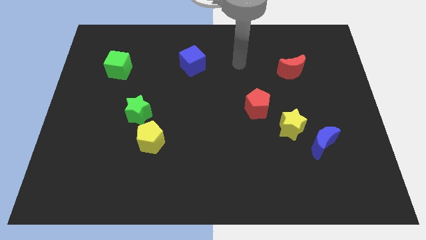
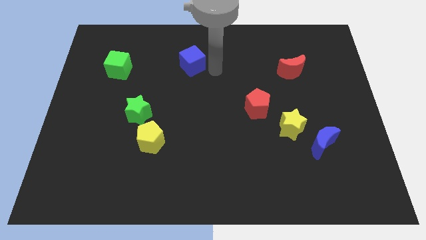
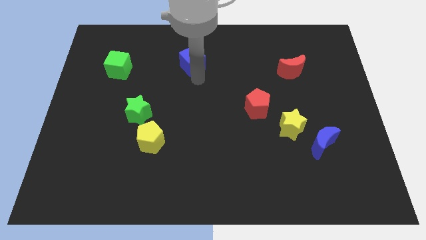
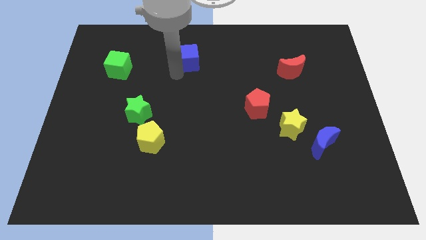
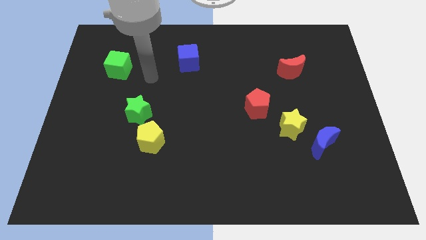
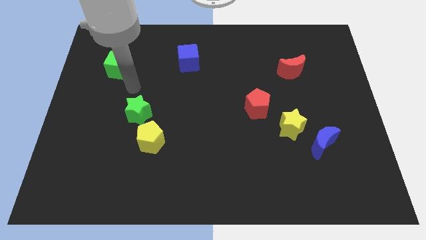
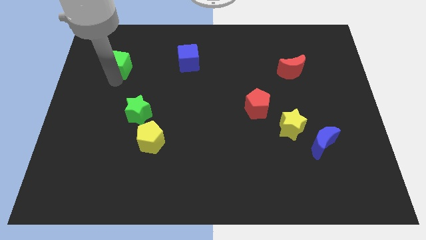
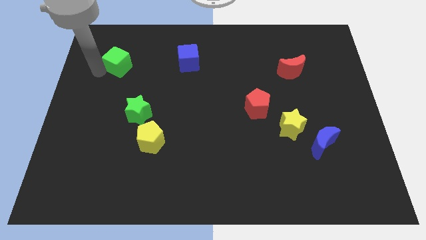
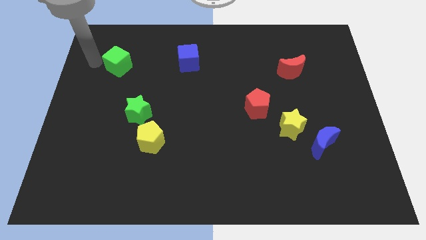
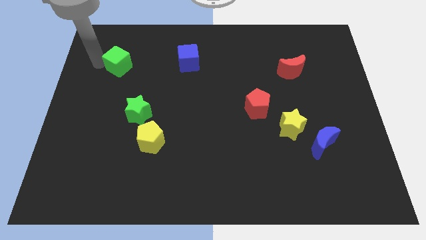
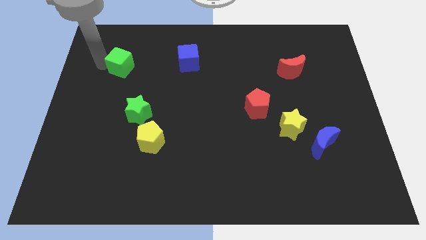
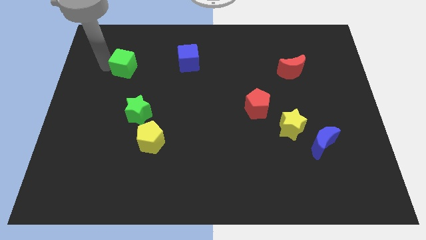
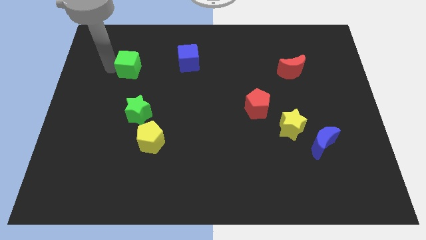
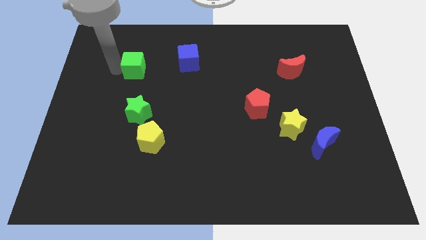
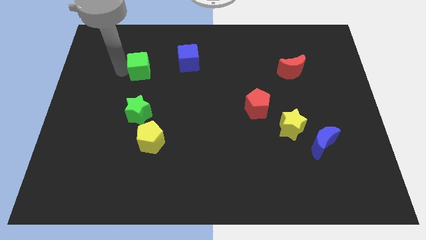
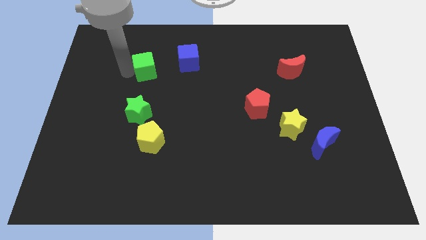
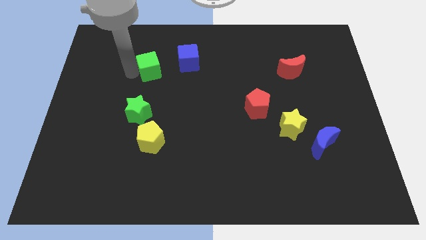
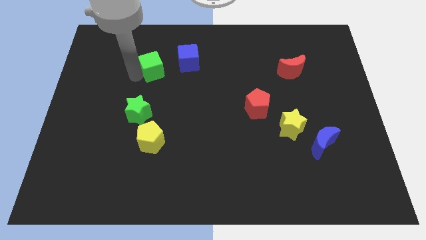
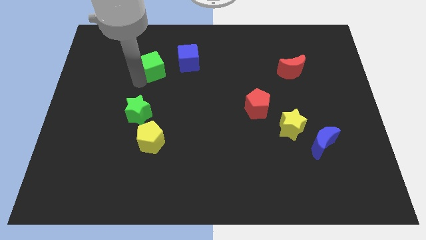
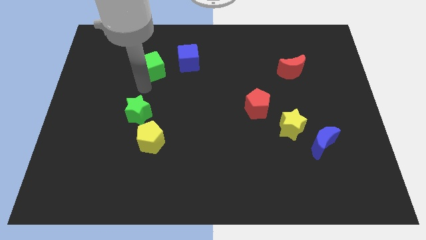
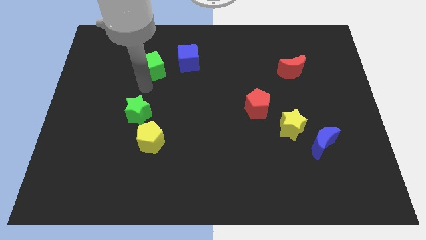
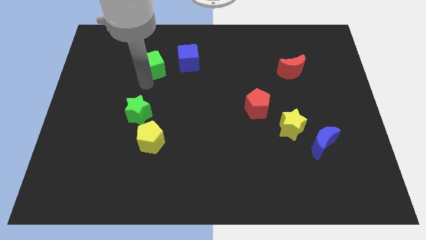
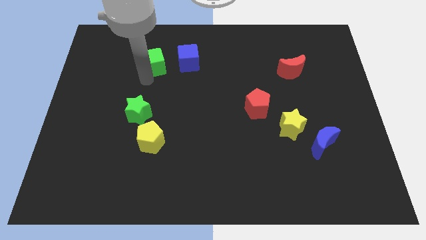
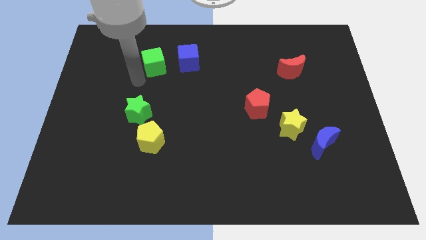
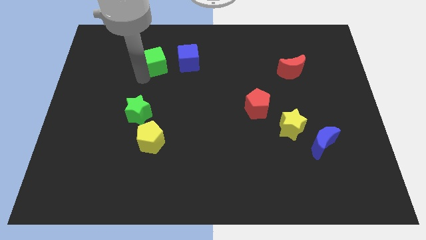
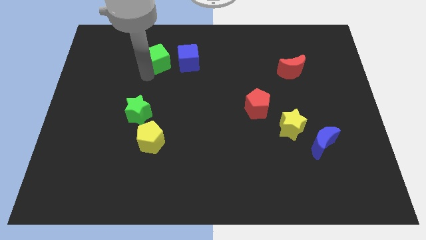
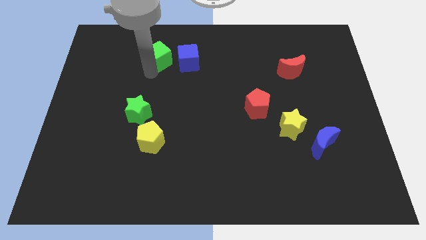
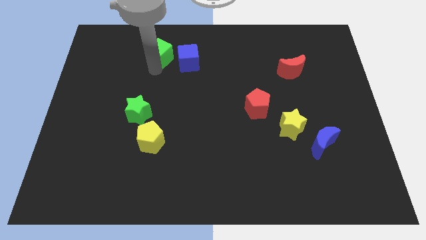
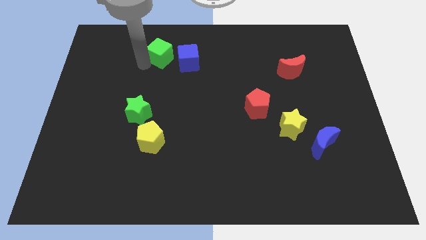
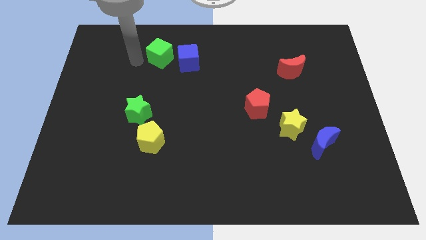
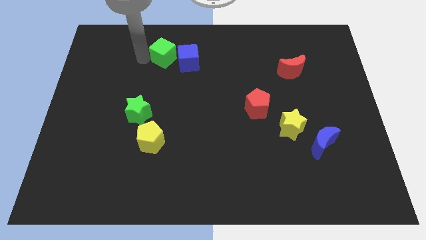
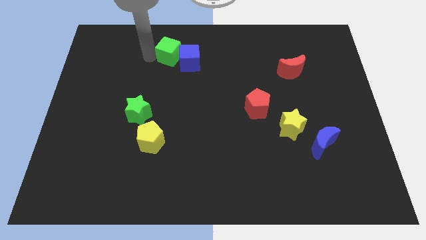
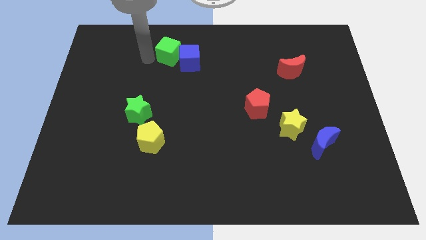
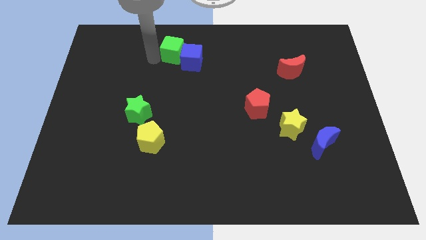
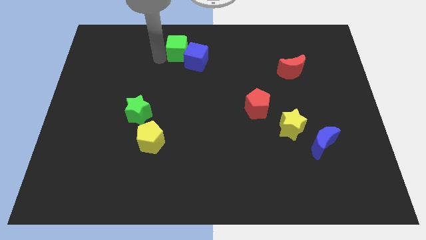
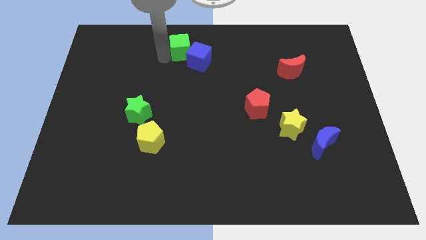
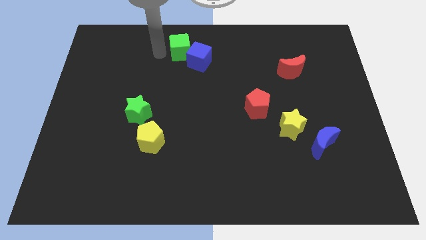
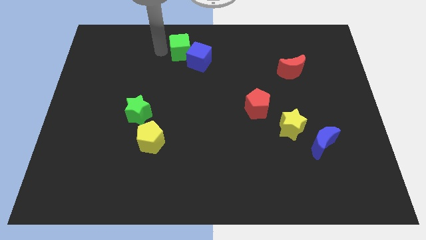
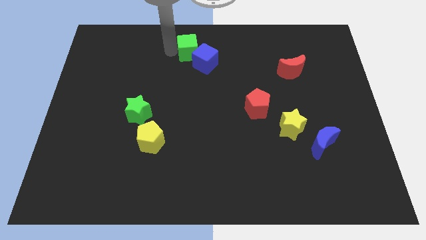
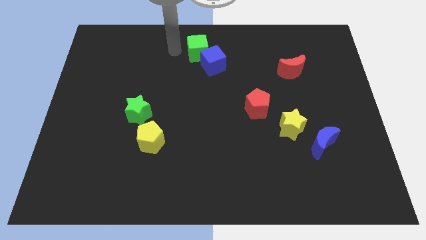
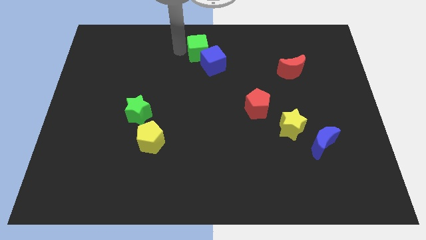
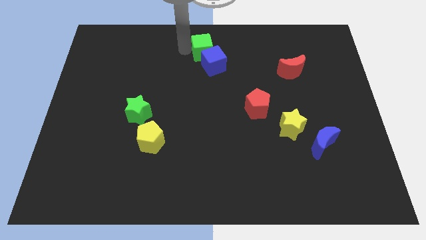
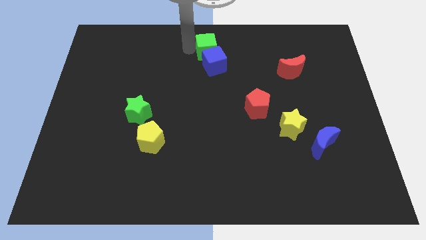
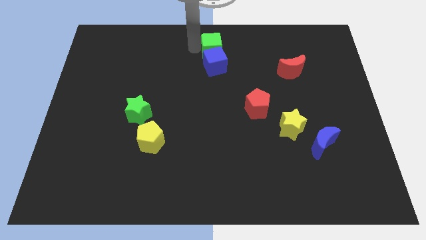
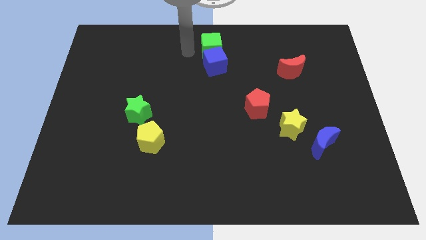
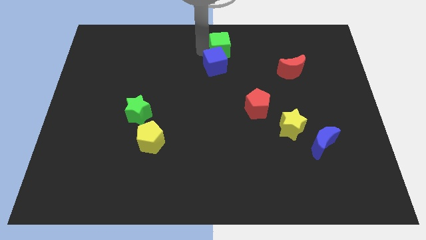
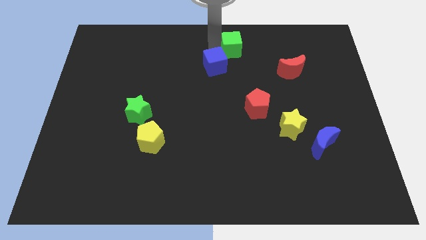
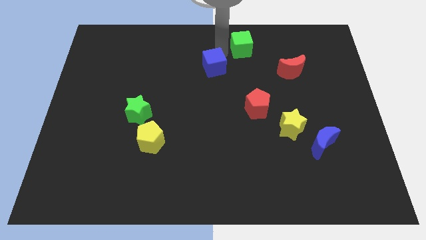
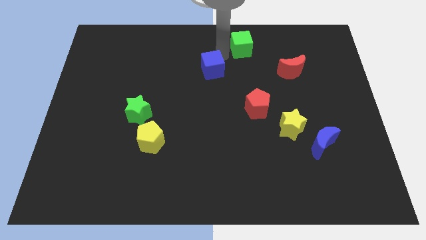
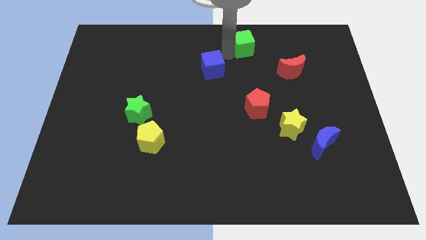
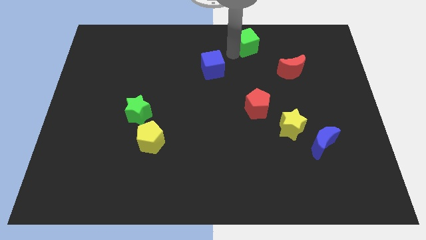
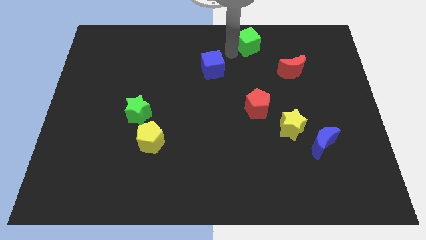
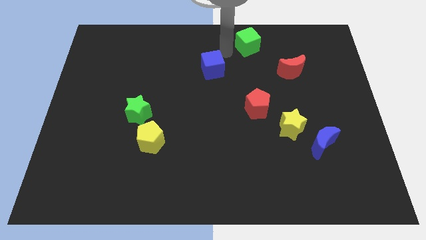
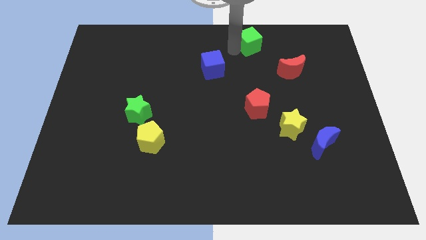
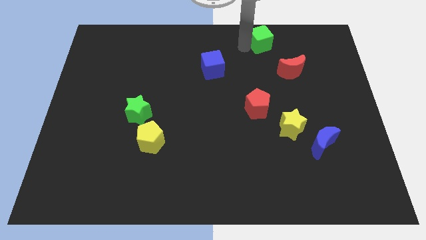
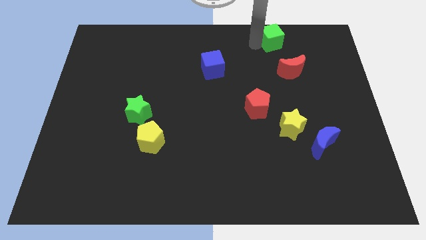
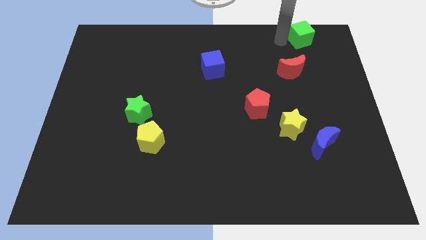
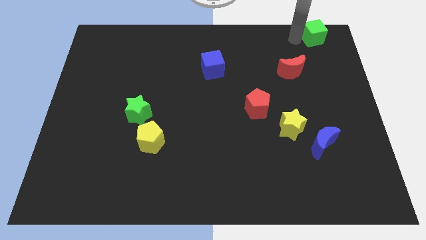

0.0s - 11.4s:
push the green cube to the upper right corner

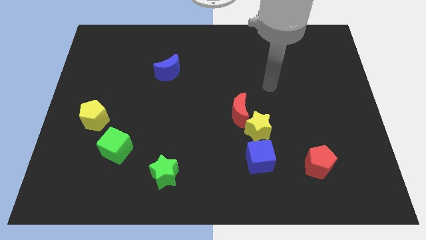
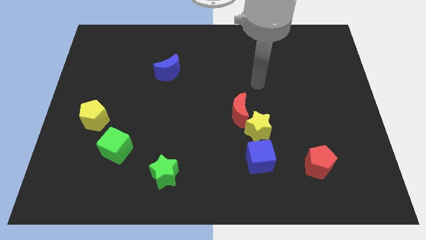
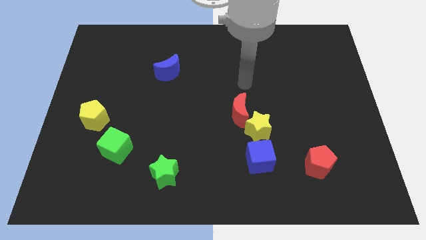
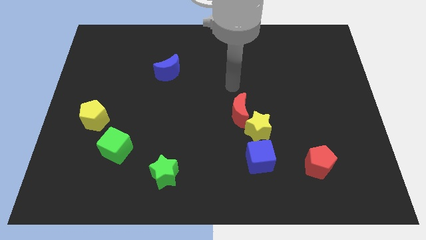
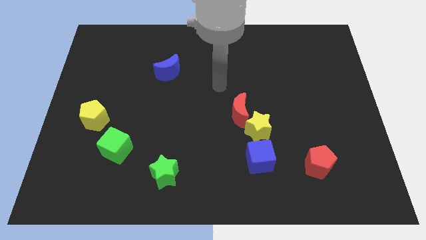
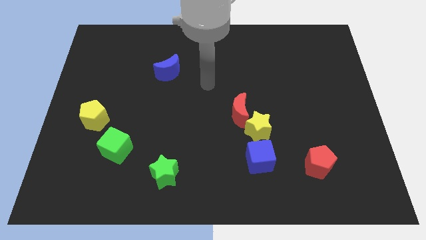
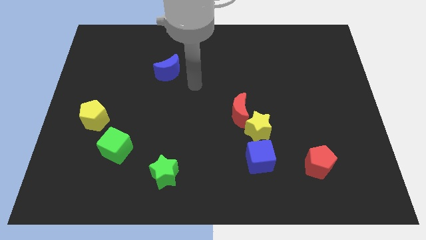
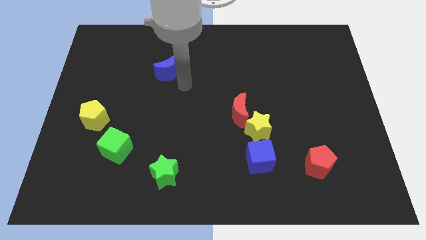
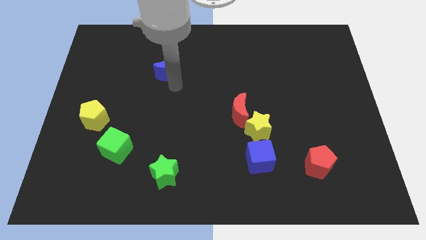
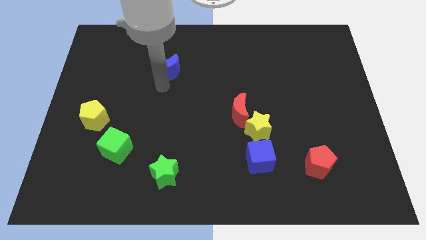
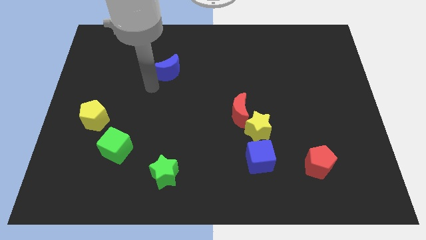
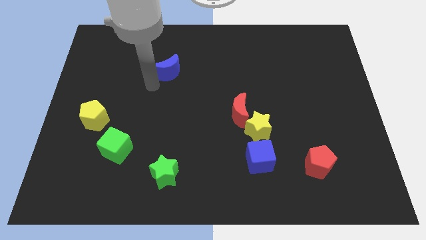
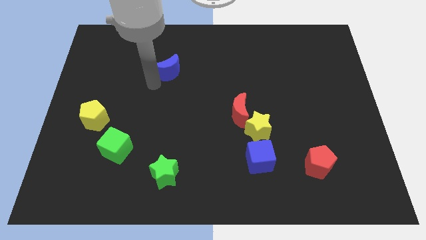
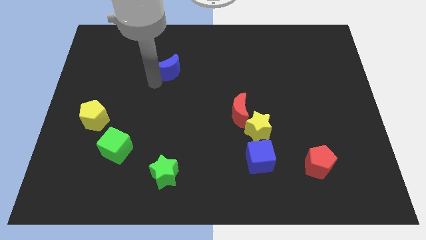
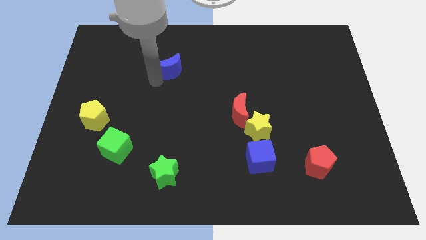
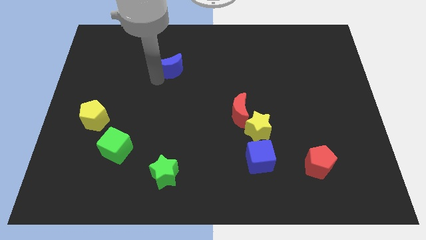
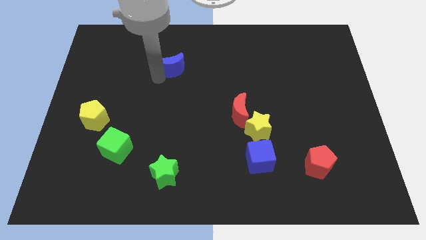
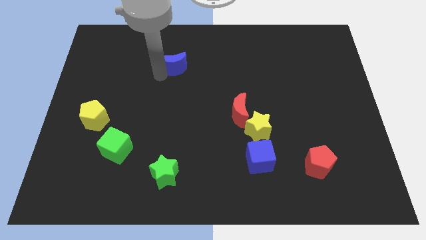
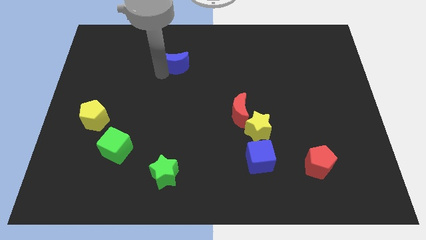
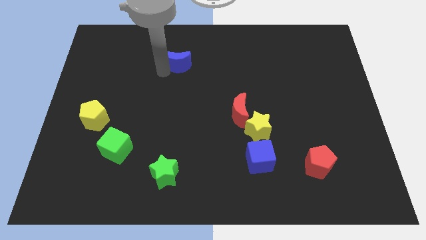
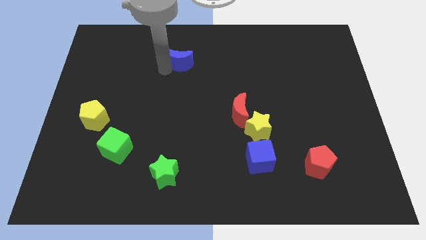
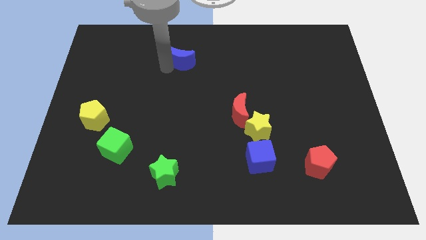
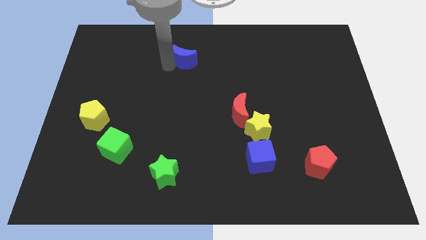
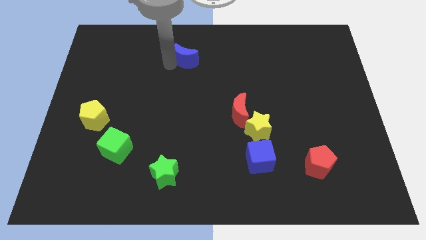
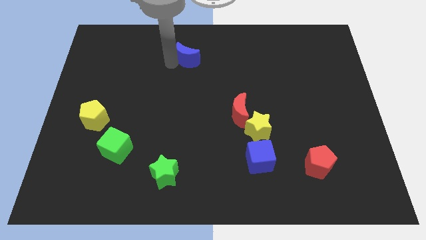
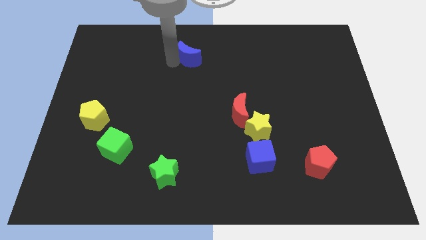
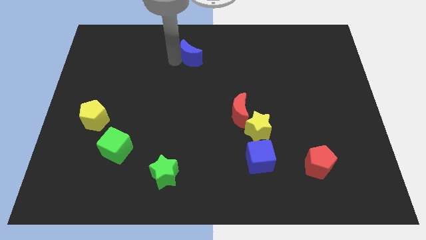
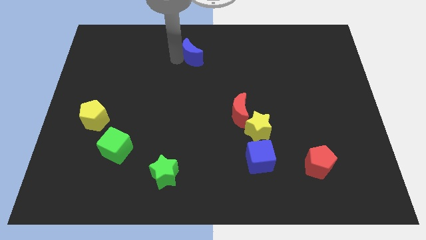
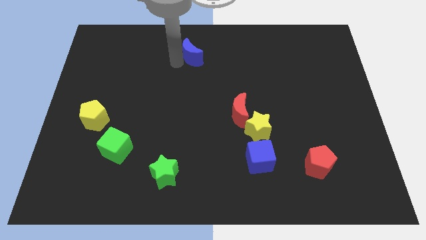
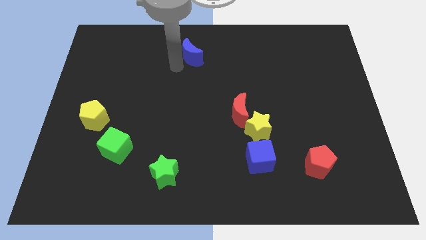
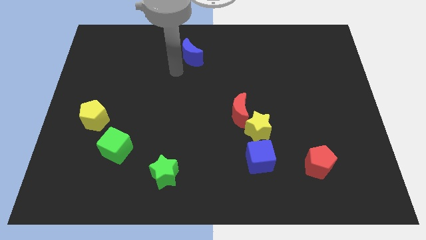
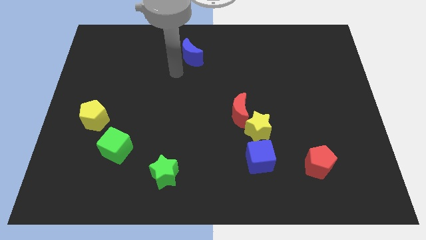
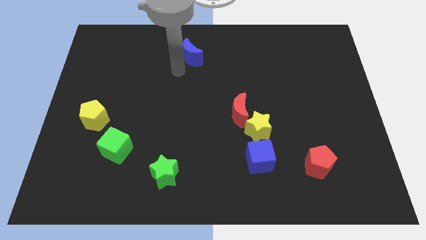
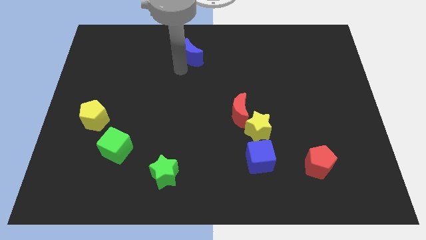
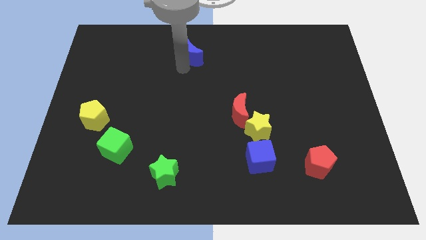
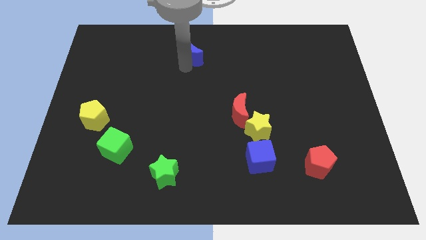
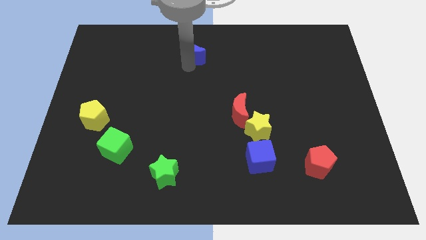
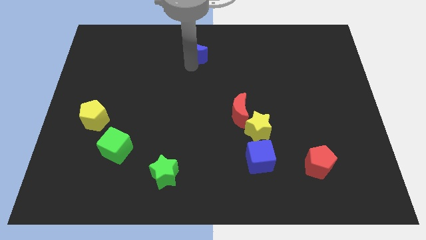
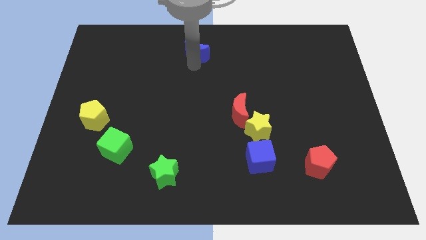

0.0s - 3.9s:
push the blue moon to the top side
